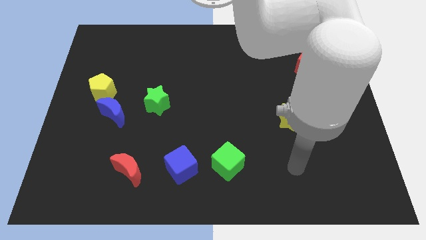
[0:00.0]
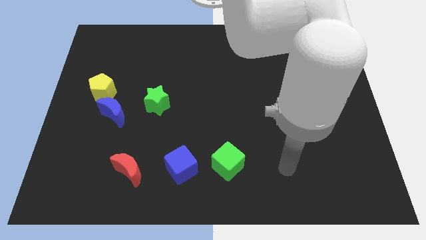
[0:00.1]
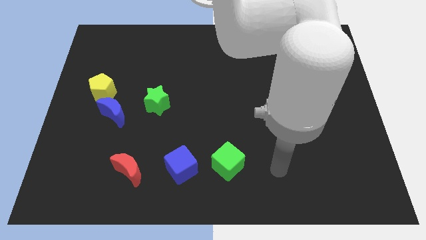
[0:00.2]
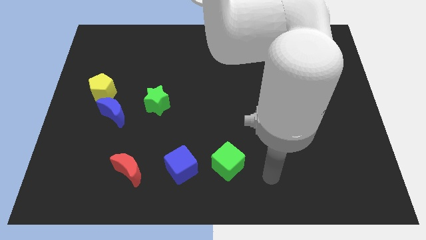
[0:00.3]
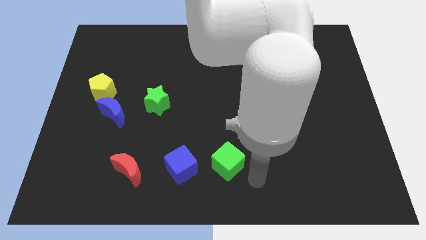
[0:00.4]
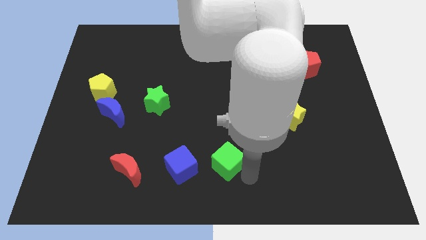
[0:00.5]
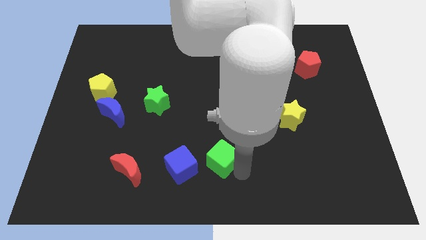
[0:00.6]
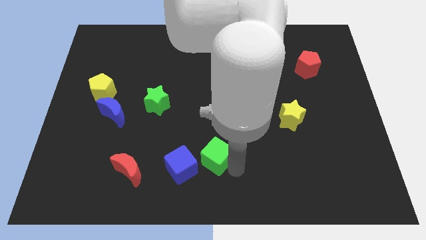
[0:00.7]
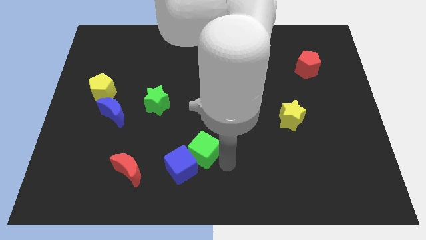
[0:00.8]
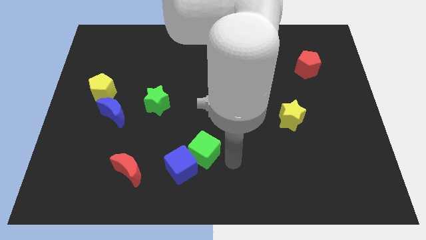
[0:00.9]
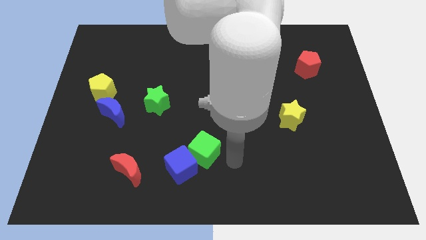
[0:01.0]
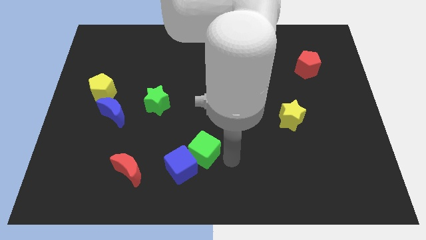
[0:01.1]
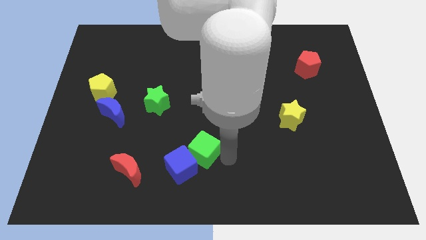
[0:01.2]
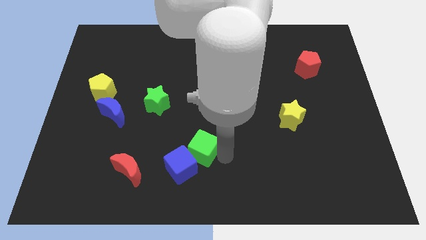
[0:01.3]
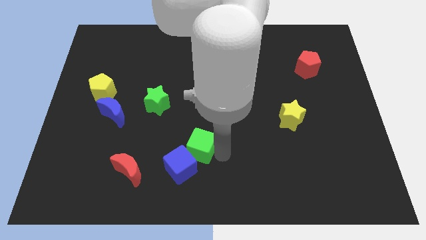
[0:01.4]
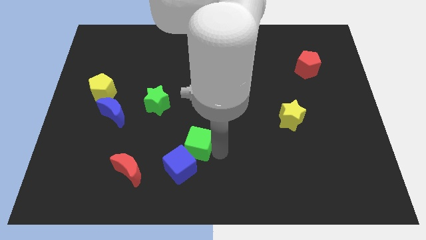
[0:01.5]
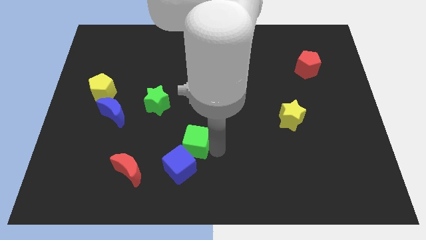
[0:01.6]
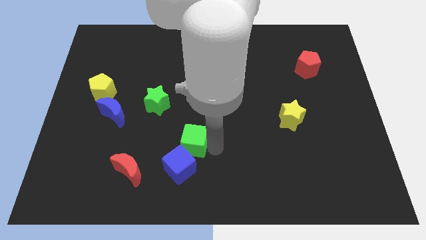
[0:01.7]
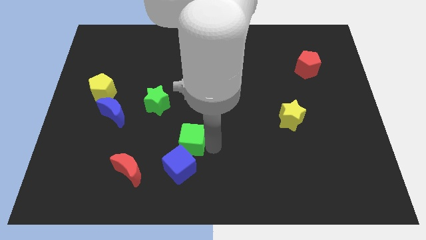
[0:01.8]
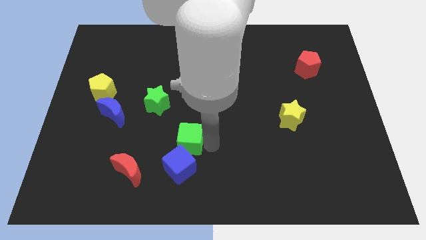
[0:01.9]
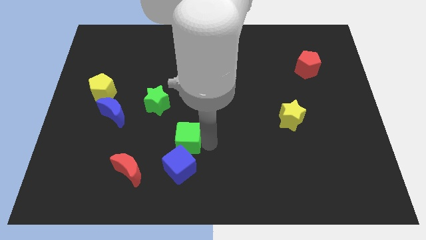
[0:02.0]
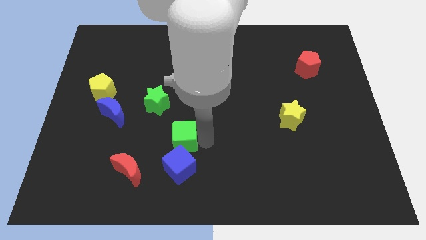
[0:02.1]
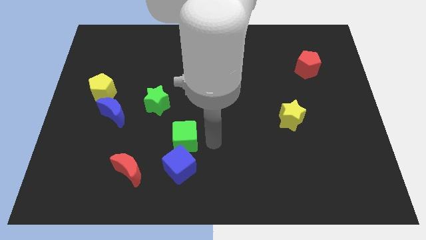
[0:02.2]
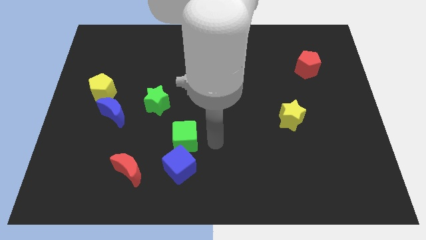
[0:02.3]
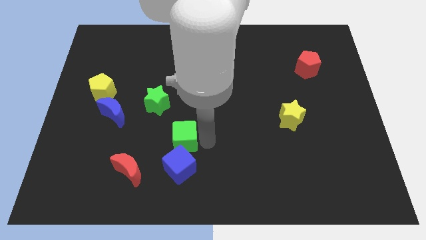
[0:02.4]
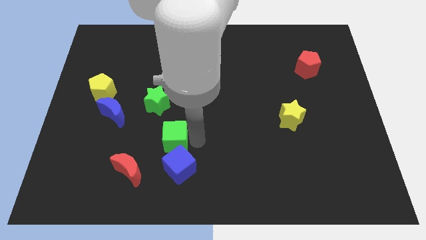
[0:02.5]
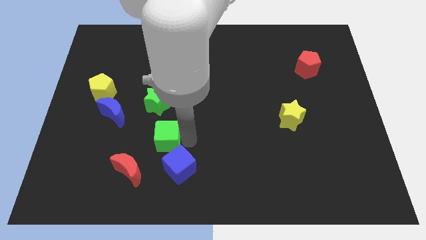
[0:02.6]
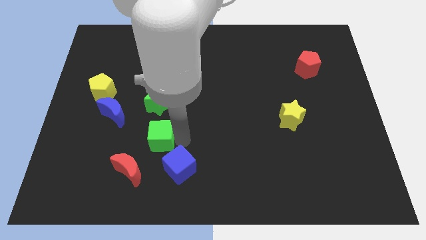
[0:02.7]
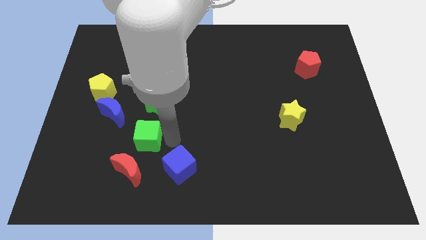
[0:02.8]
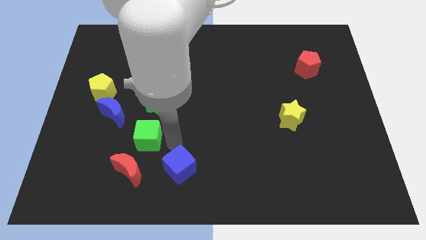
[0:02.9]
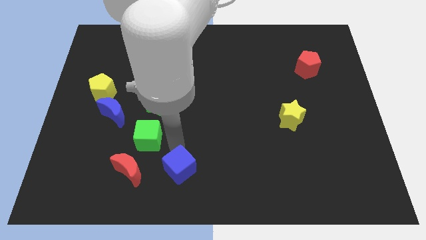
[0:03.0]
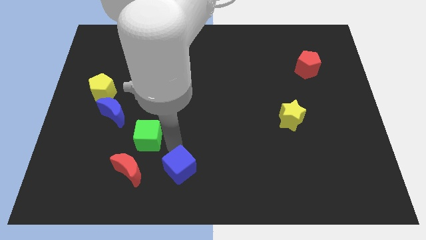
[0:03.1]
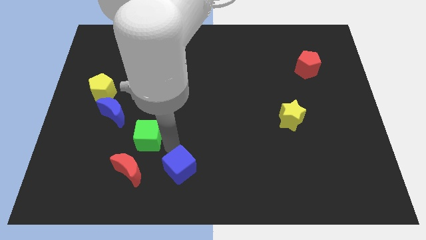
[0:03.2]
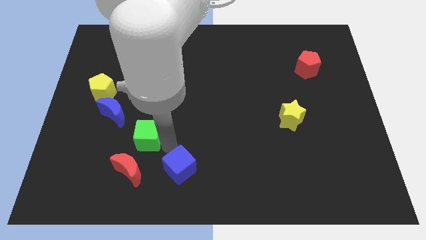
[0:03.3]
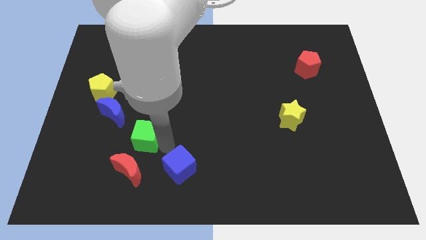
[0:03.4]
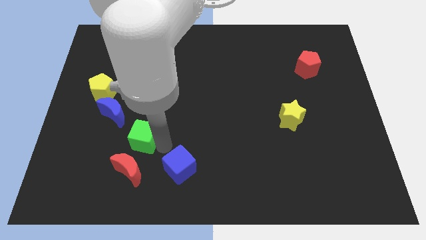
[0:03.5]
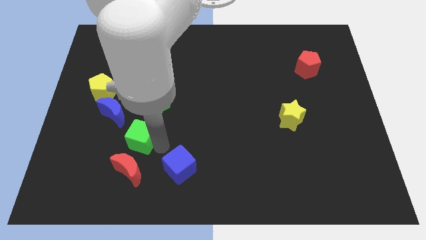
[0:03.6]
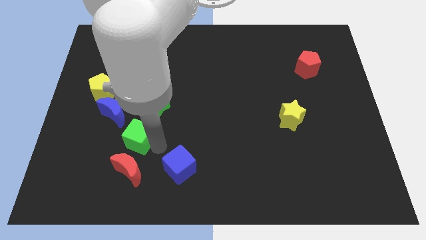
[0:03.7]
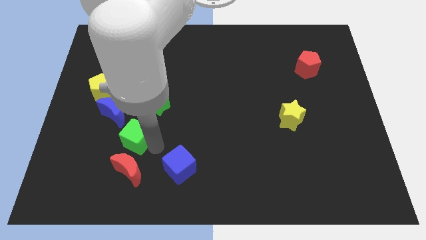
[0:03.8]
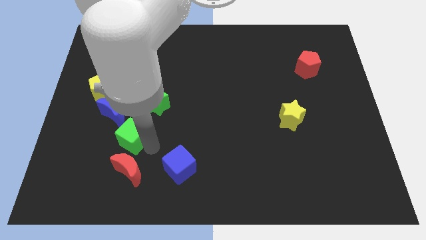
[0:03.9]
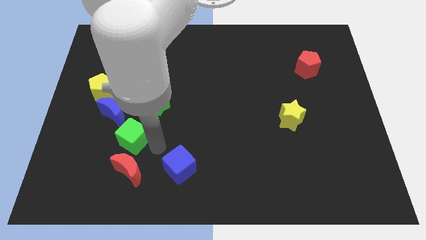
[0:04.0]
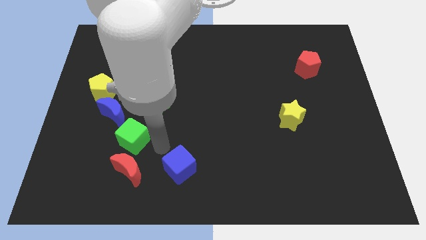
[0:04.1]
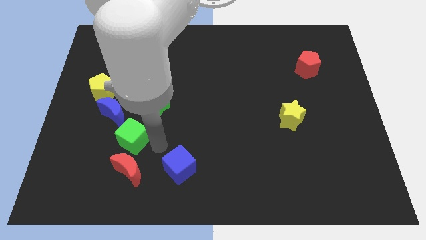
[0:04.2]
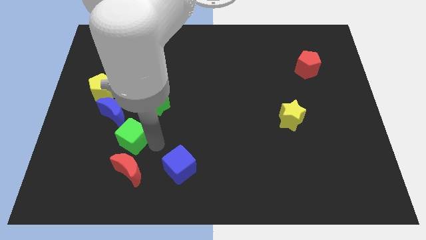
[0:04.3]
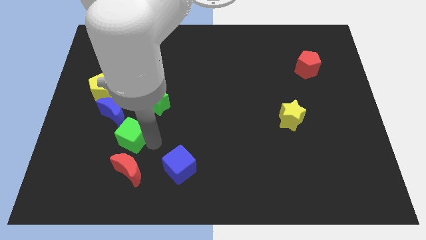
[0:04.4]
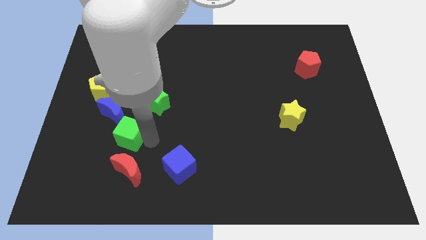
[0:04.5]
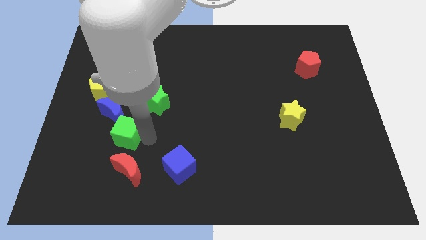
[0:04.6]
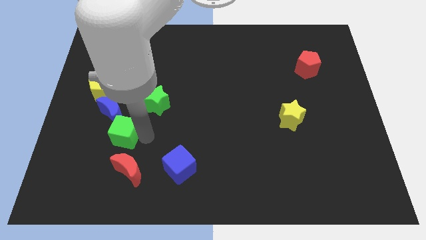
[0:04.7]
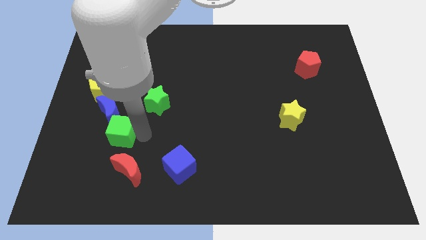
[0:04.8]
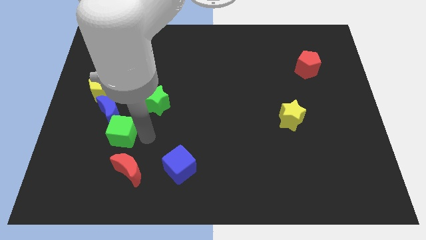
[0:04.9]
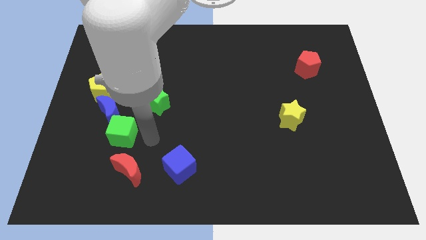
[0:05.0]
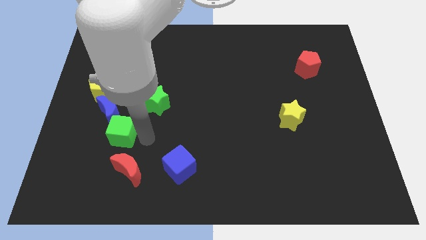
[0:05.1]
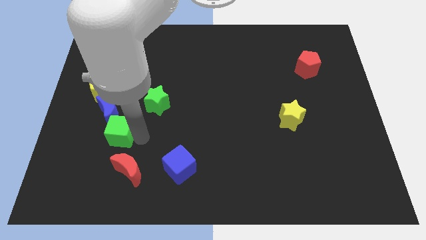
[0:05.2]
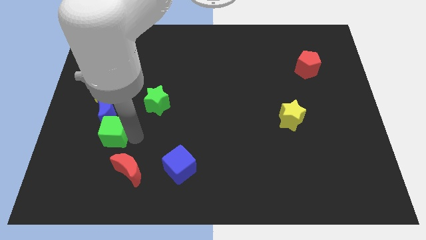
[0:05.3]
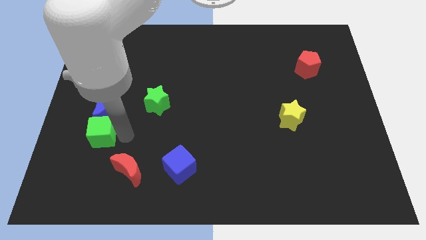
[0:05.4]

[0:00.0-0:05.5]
move the green cube diagonally down and to the left of the blue moon

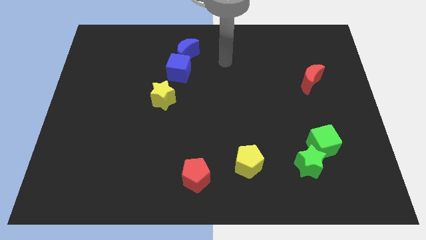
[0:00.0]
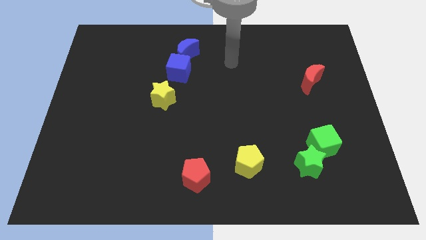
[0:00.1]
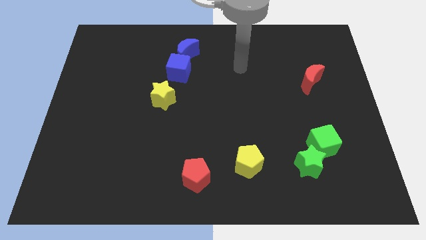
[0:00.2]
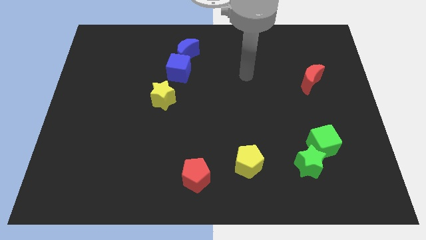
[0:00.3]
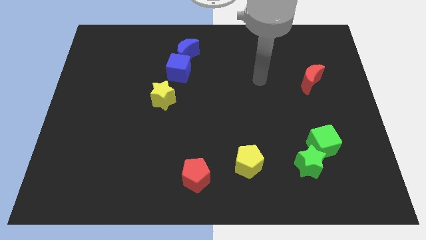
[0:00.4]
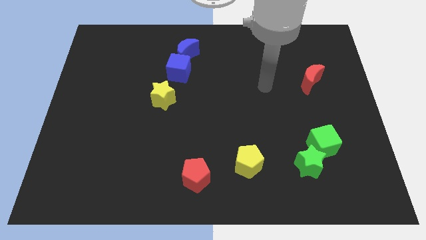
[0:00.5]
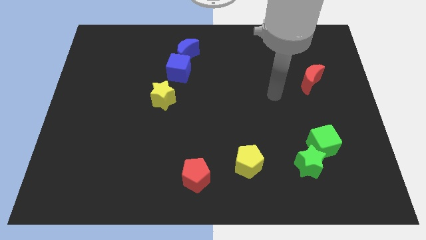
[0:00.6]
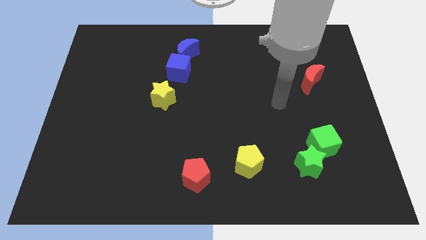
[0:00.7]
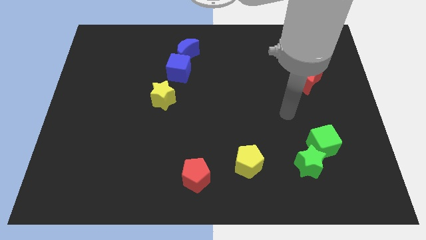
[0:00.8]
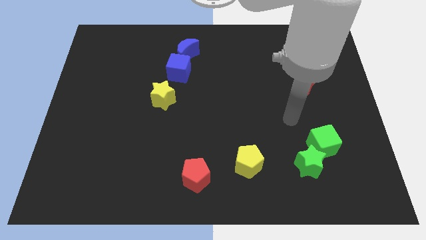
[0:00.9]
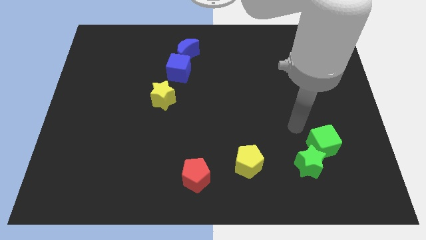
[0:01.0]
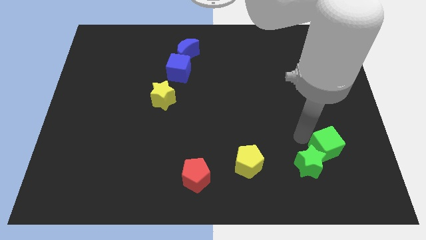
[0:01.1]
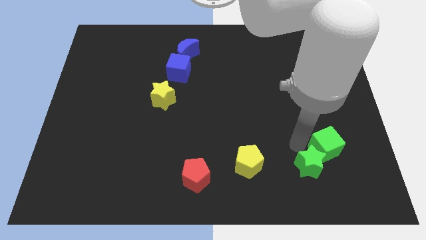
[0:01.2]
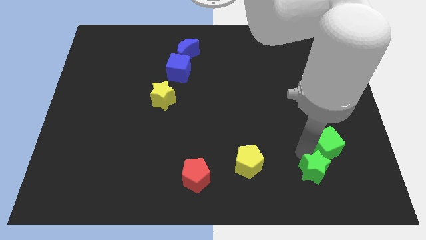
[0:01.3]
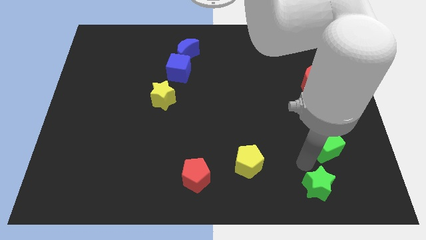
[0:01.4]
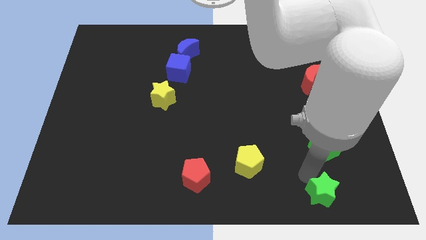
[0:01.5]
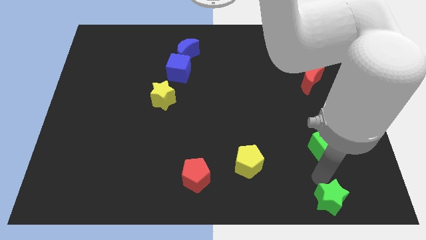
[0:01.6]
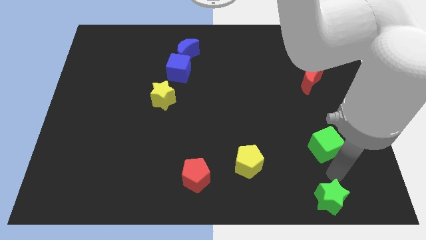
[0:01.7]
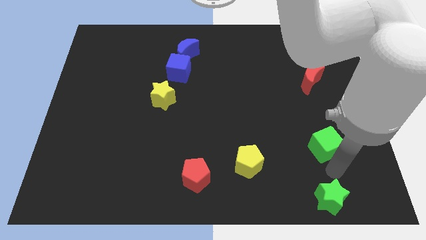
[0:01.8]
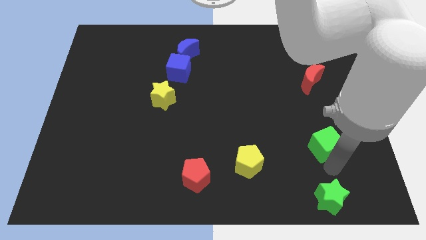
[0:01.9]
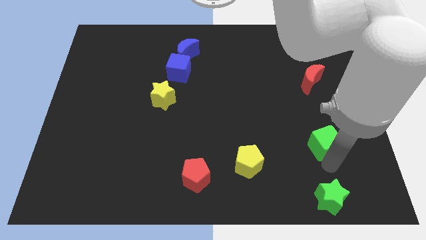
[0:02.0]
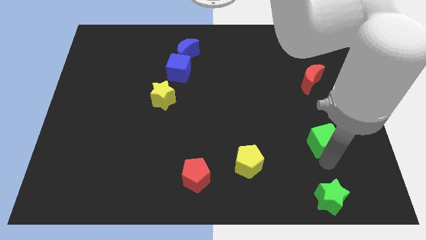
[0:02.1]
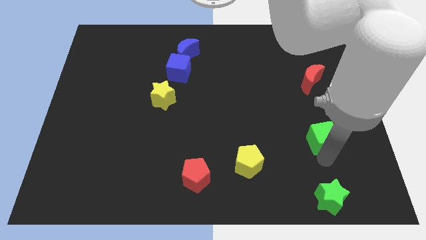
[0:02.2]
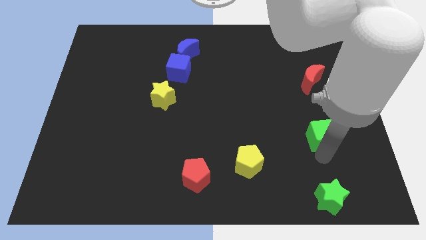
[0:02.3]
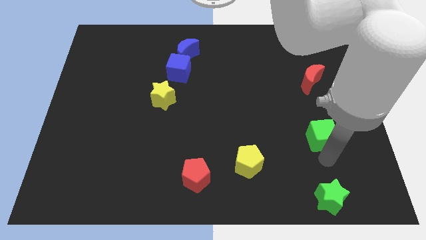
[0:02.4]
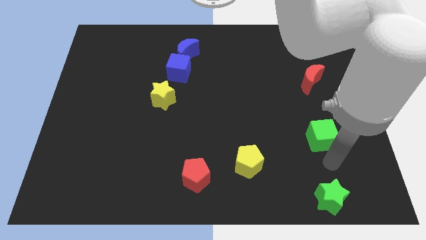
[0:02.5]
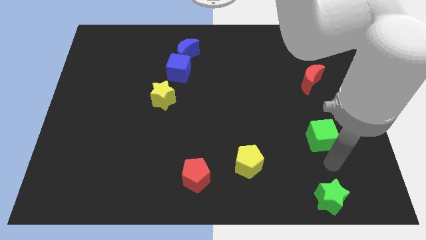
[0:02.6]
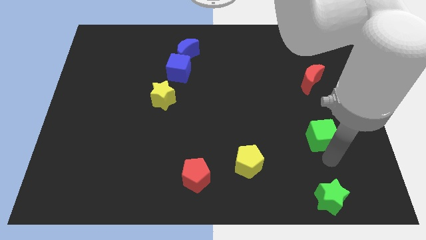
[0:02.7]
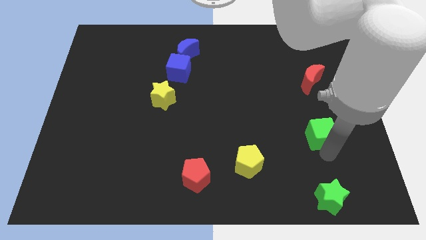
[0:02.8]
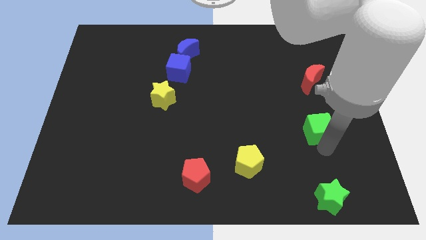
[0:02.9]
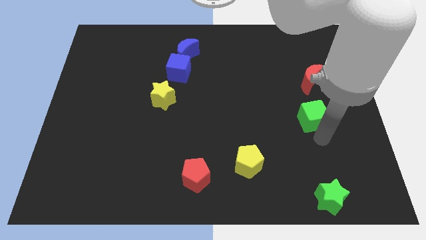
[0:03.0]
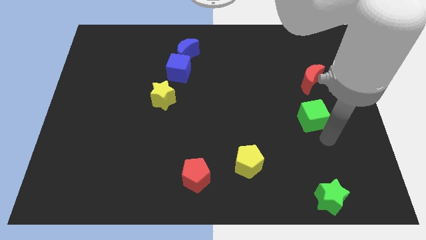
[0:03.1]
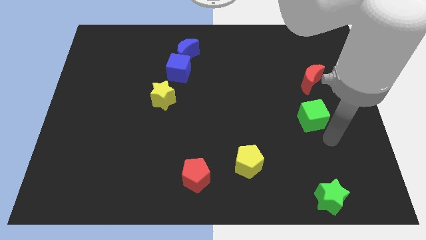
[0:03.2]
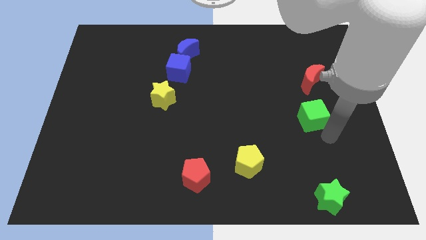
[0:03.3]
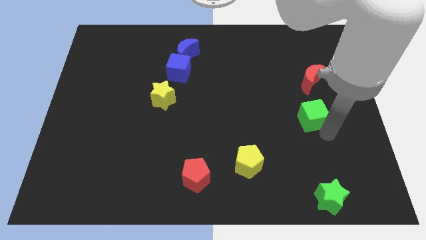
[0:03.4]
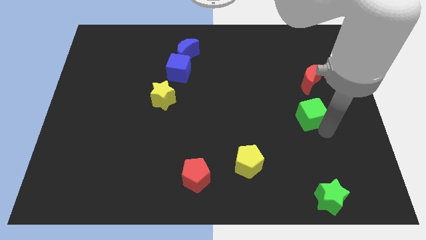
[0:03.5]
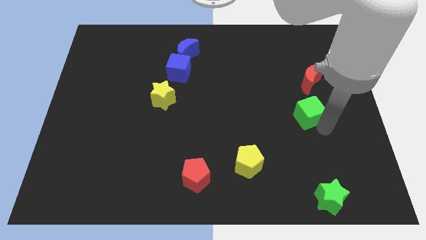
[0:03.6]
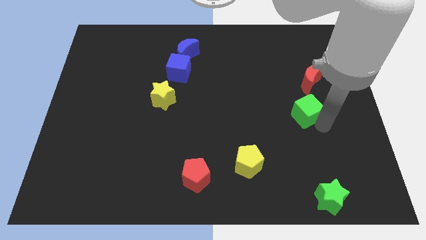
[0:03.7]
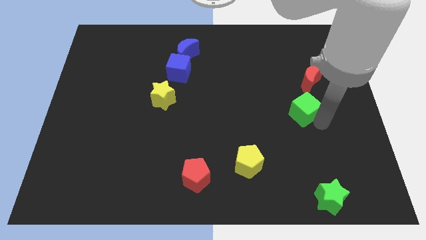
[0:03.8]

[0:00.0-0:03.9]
slide the green cube diagonally down and to the left of the red moon
